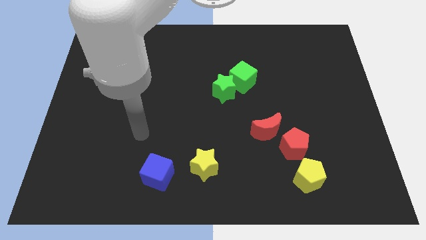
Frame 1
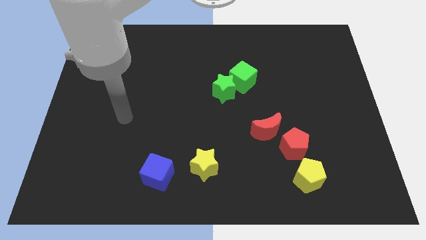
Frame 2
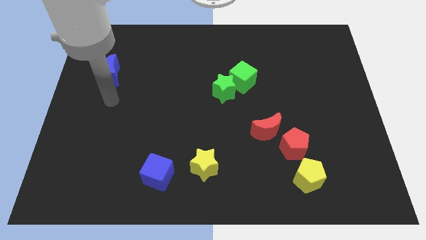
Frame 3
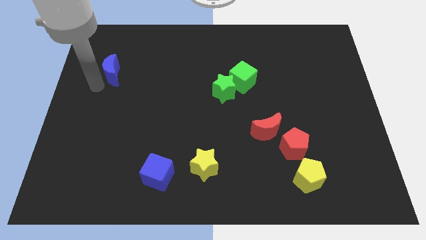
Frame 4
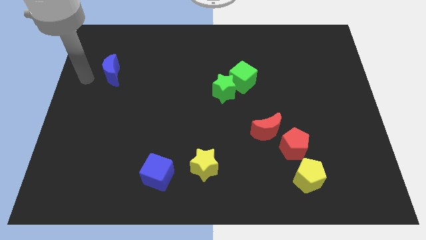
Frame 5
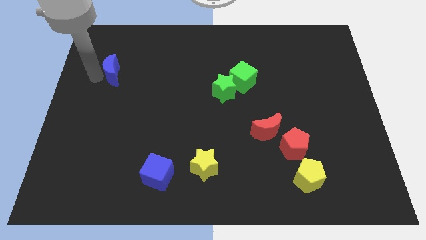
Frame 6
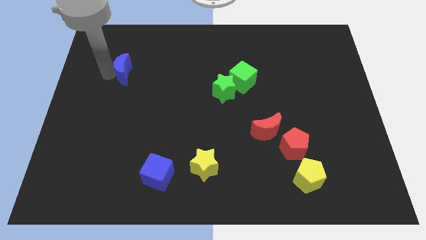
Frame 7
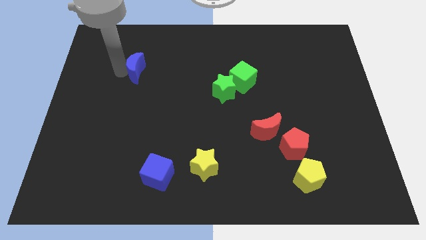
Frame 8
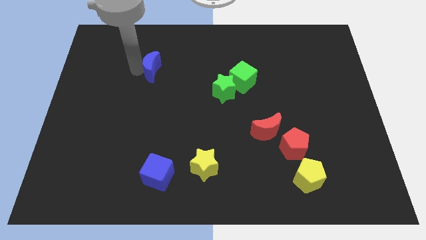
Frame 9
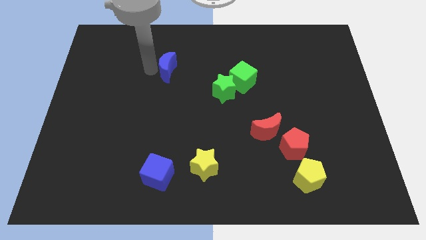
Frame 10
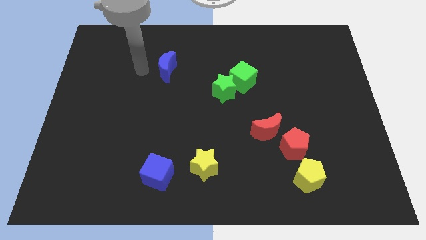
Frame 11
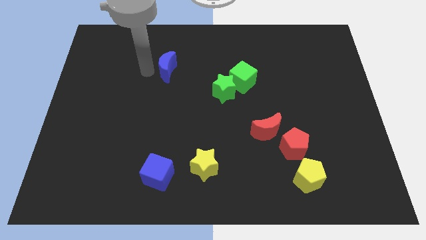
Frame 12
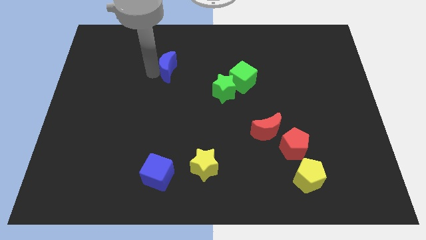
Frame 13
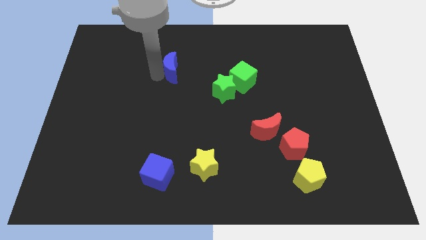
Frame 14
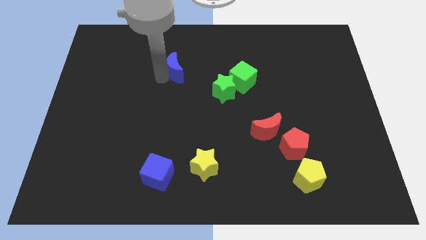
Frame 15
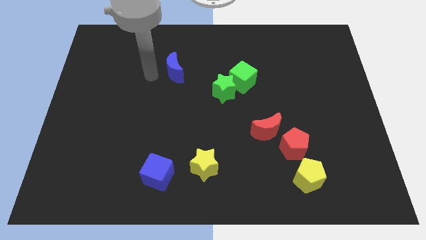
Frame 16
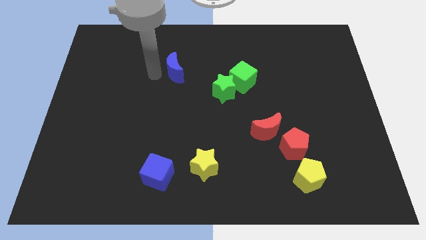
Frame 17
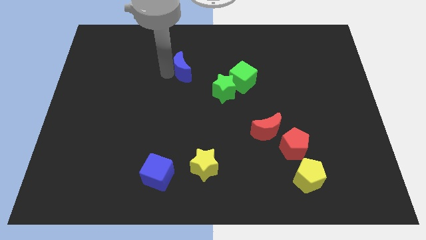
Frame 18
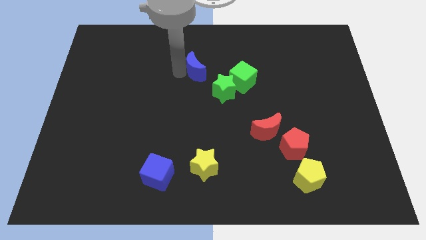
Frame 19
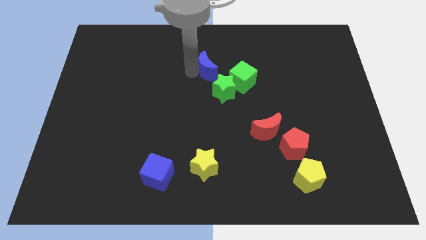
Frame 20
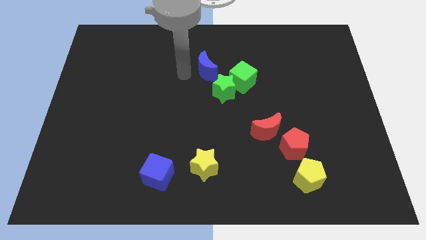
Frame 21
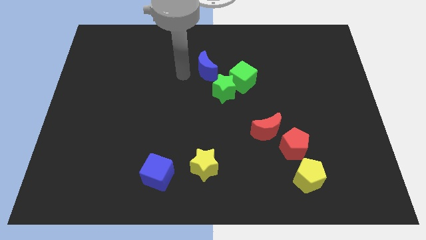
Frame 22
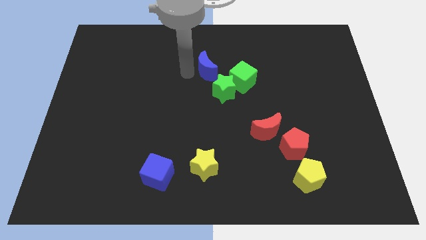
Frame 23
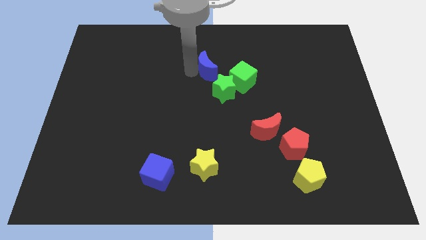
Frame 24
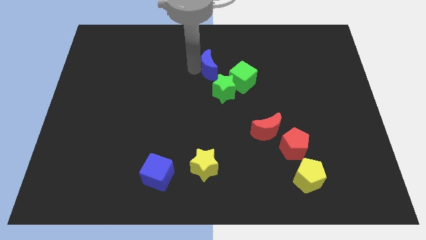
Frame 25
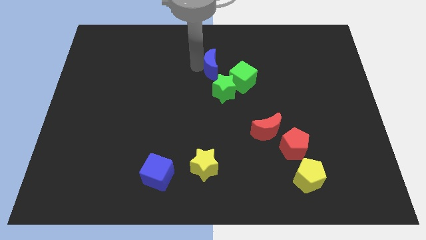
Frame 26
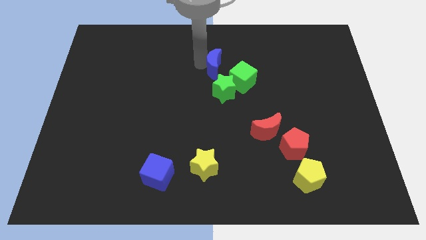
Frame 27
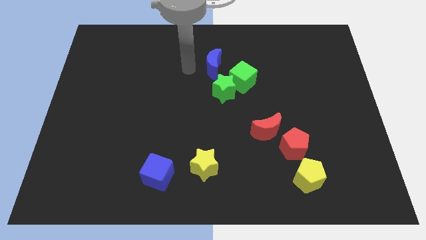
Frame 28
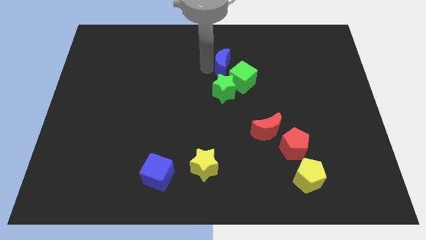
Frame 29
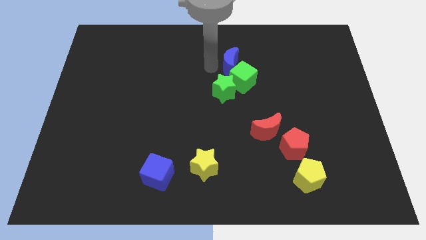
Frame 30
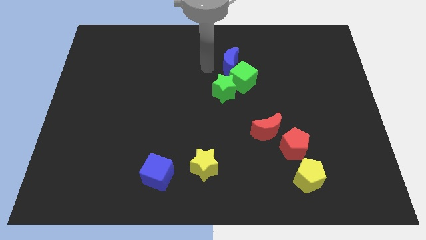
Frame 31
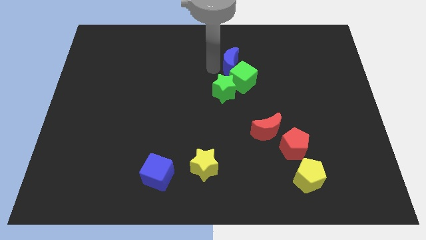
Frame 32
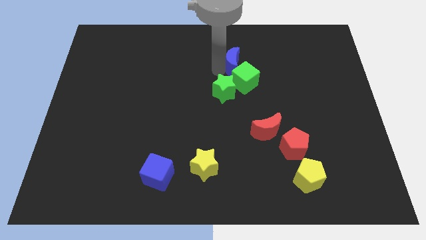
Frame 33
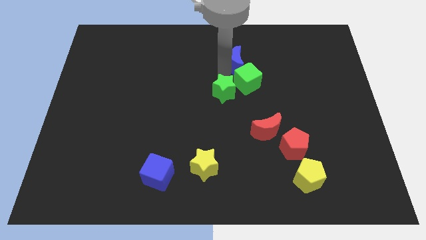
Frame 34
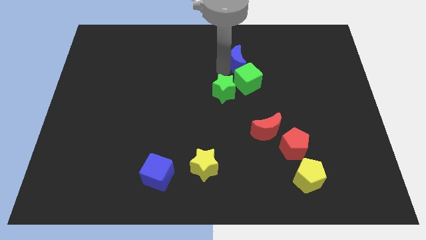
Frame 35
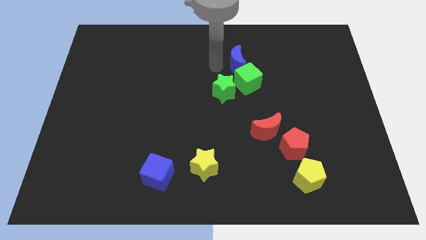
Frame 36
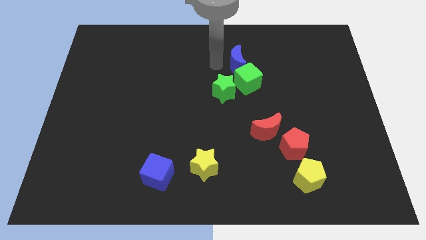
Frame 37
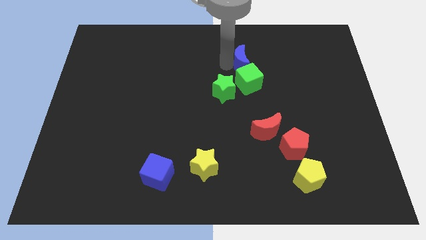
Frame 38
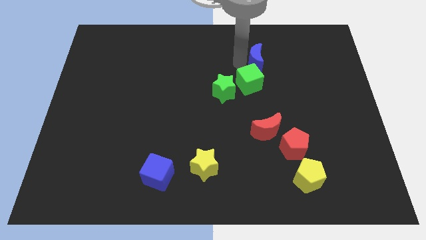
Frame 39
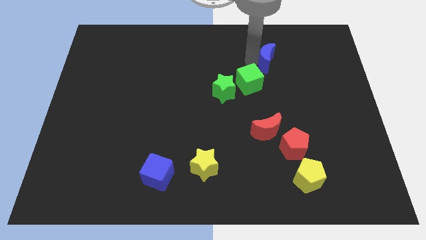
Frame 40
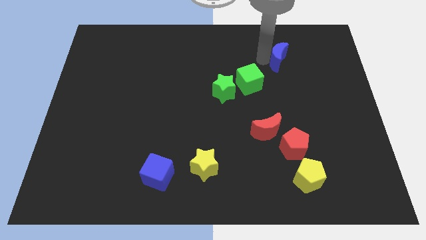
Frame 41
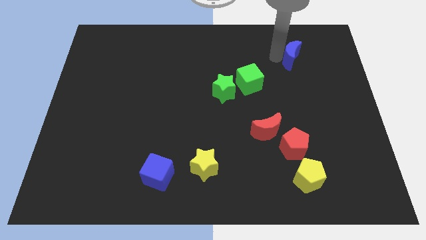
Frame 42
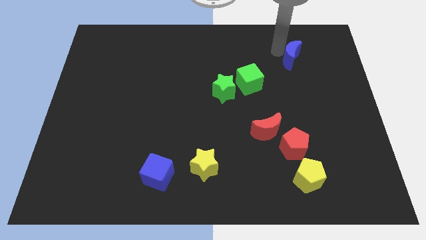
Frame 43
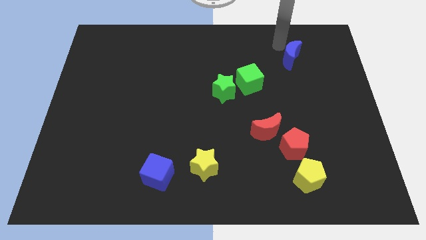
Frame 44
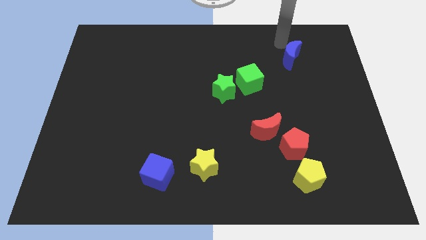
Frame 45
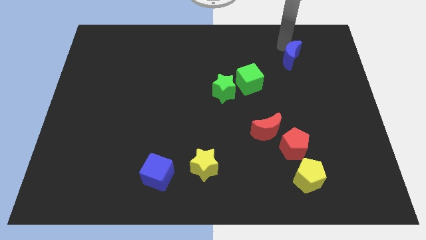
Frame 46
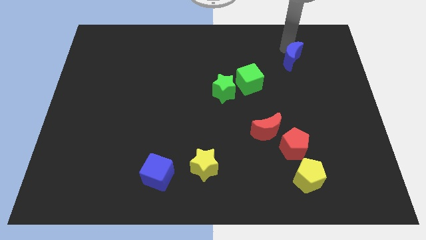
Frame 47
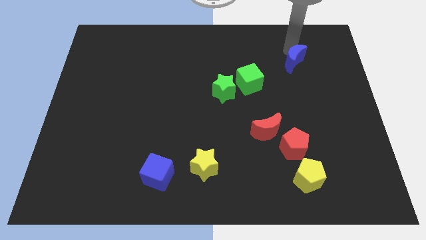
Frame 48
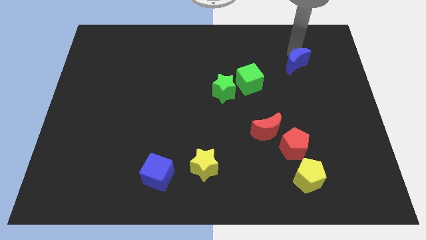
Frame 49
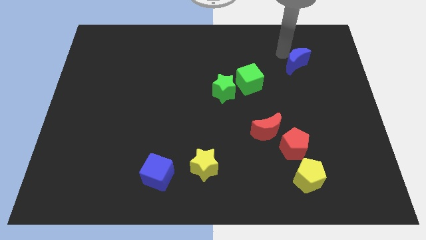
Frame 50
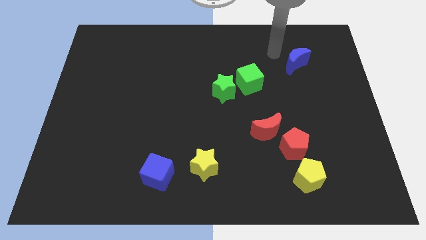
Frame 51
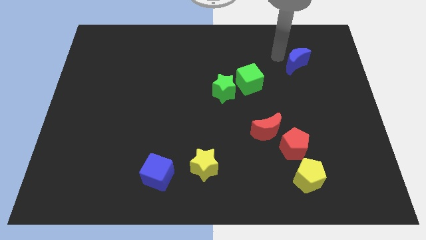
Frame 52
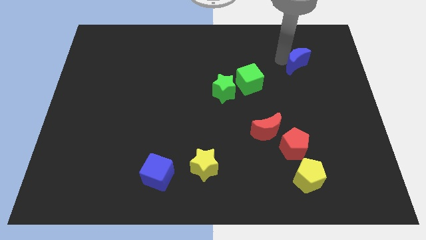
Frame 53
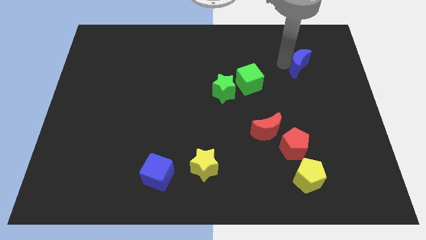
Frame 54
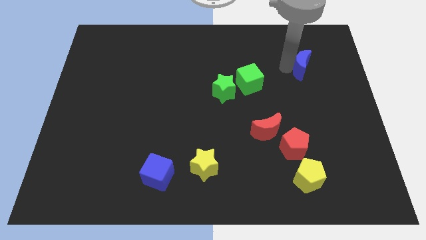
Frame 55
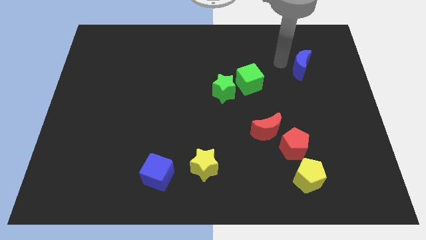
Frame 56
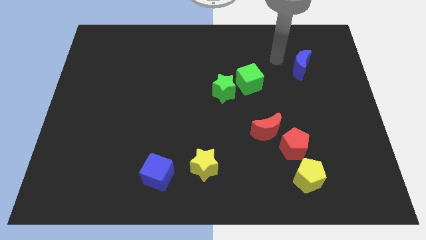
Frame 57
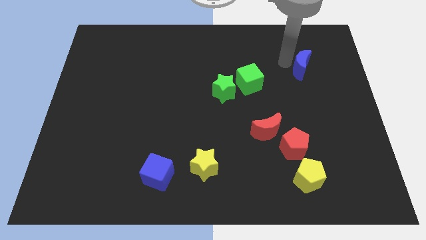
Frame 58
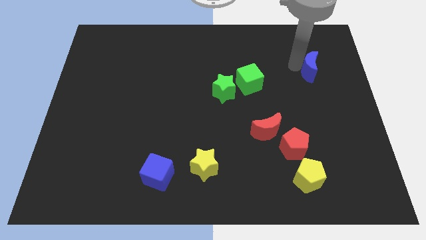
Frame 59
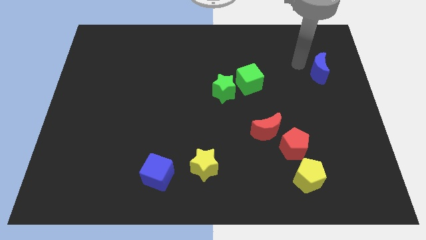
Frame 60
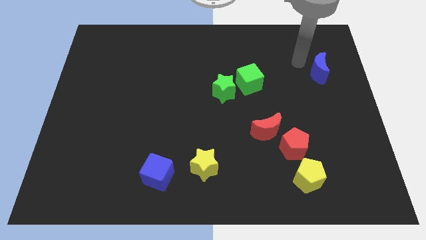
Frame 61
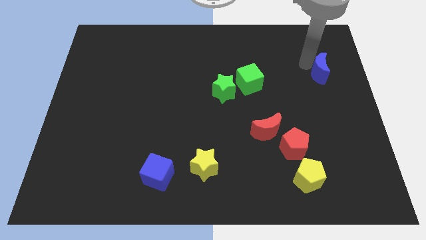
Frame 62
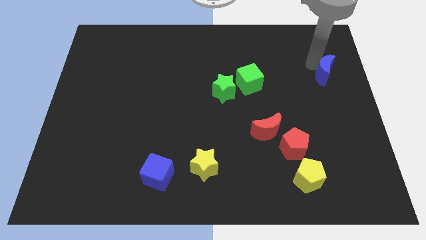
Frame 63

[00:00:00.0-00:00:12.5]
slide the blue moon to the right side

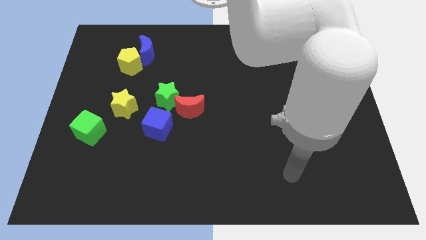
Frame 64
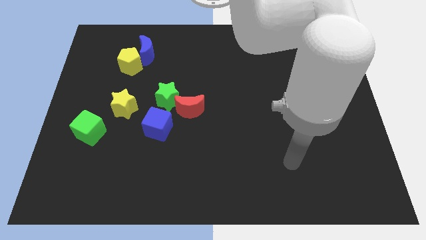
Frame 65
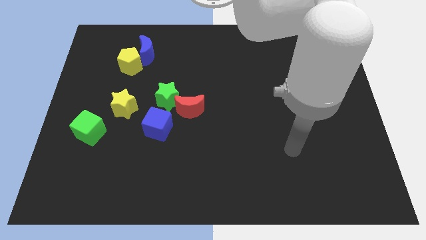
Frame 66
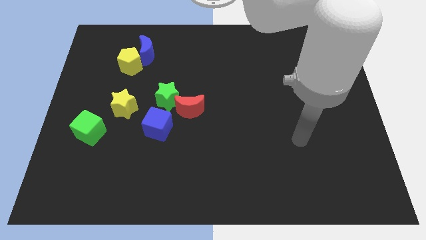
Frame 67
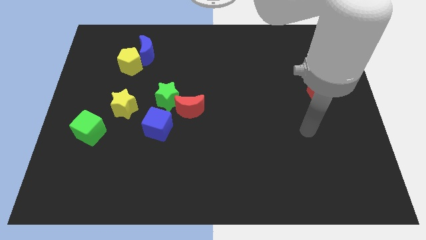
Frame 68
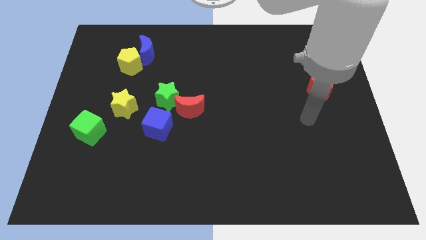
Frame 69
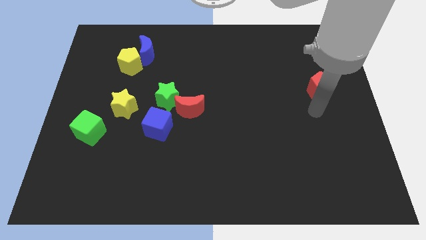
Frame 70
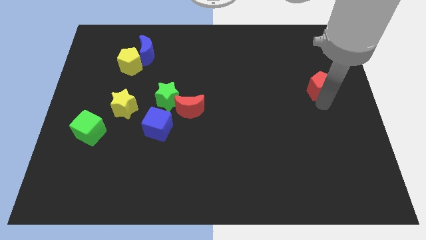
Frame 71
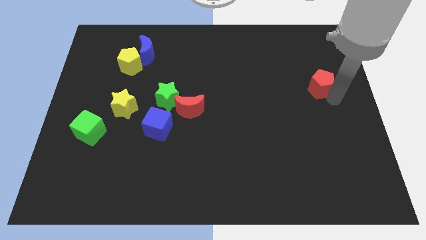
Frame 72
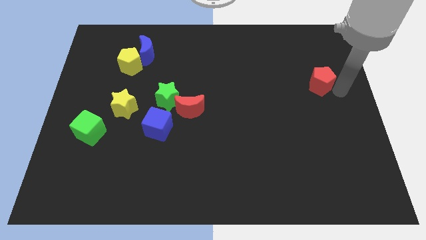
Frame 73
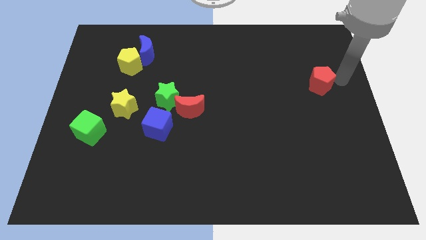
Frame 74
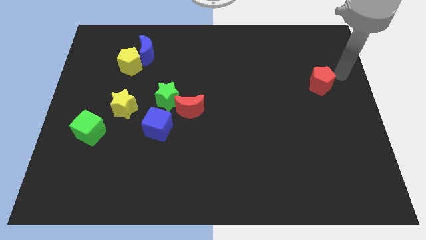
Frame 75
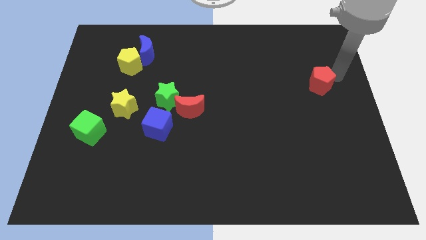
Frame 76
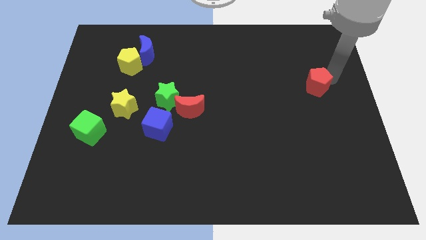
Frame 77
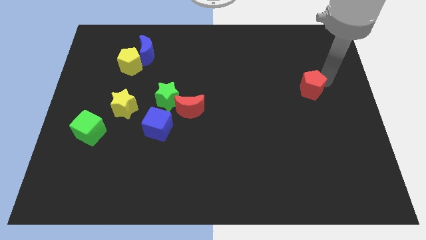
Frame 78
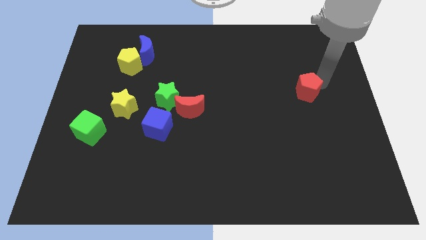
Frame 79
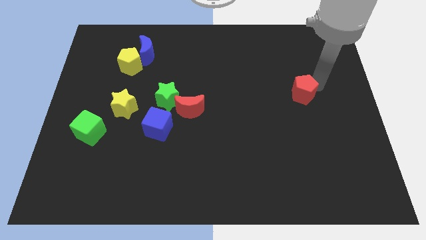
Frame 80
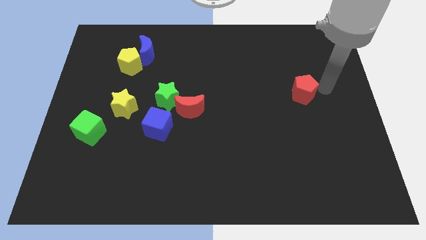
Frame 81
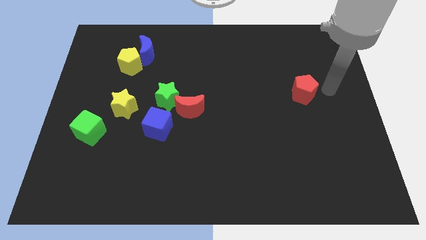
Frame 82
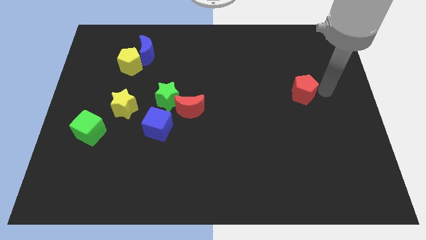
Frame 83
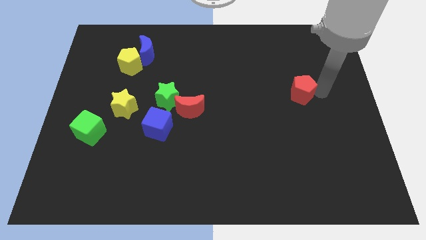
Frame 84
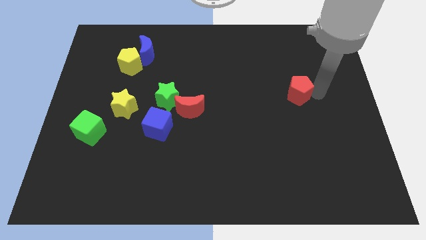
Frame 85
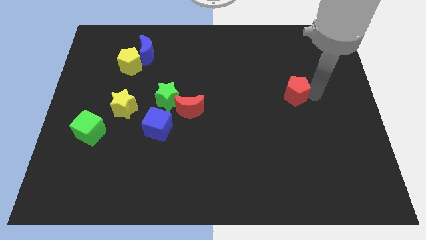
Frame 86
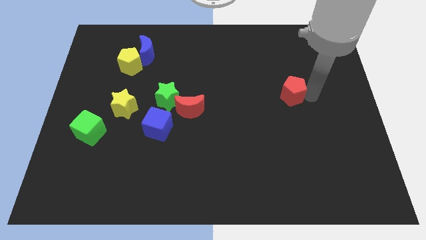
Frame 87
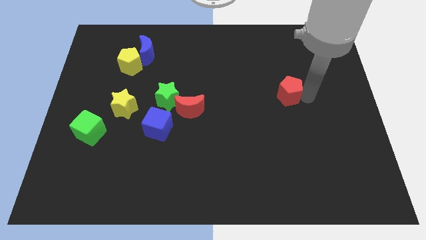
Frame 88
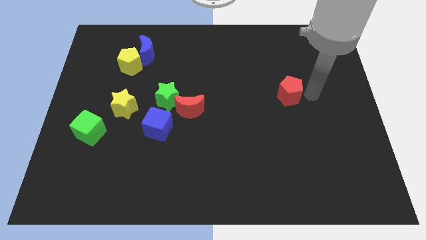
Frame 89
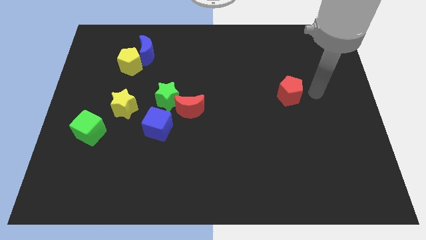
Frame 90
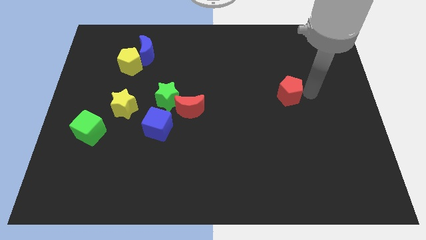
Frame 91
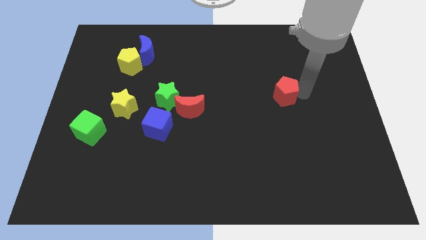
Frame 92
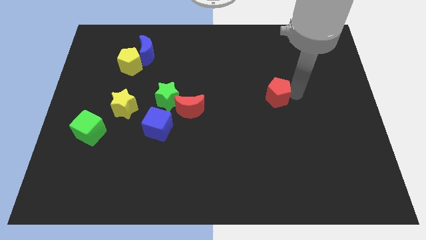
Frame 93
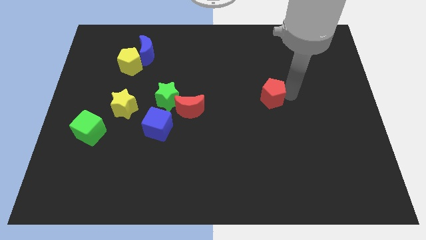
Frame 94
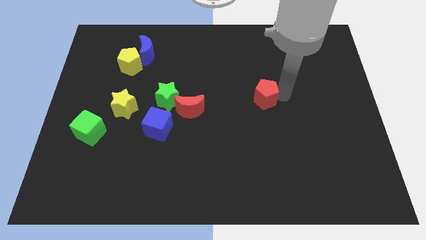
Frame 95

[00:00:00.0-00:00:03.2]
put the red pentagon to the middle
